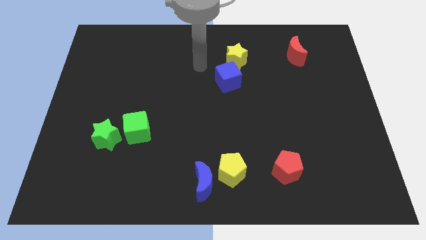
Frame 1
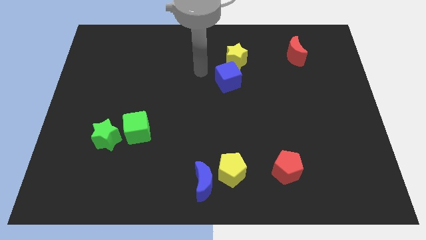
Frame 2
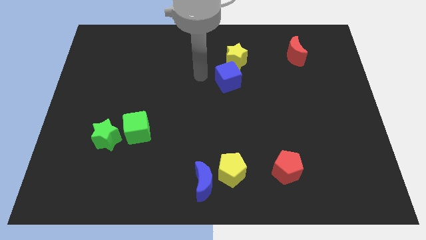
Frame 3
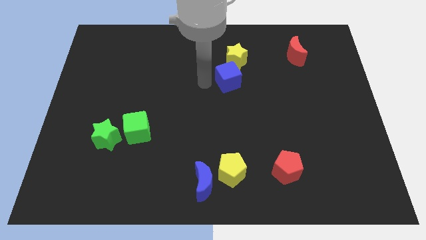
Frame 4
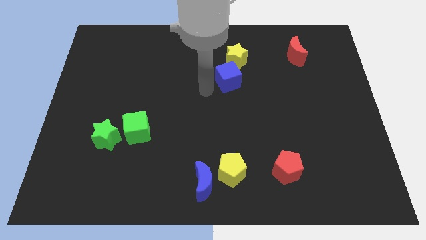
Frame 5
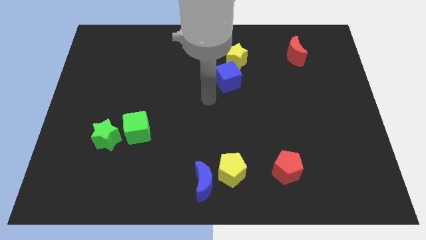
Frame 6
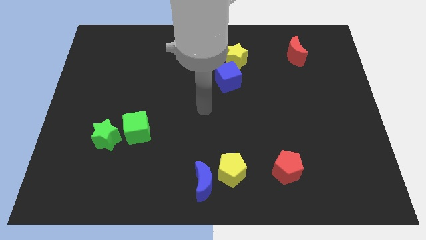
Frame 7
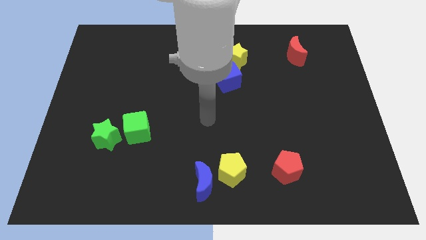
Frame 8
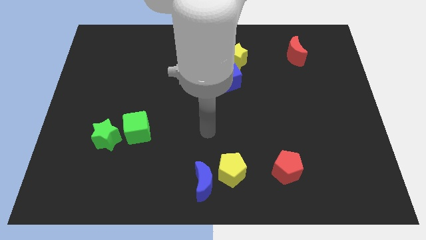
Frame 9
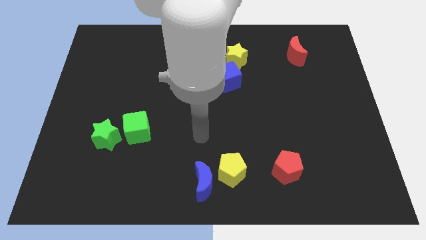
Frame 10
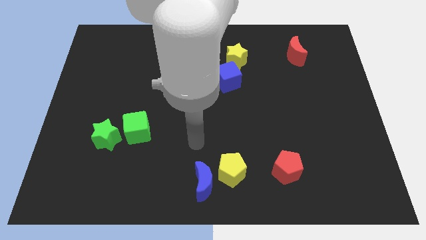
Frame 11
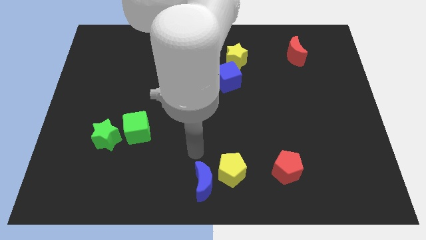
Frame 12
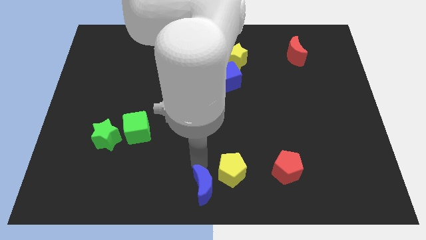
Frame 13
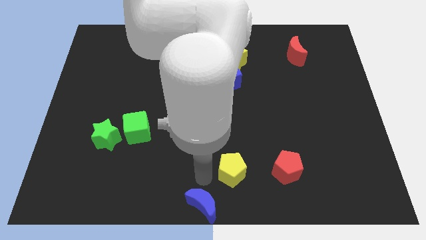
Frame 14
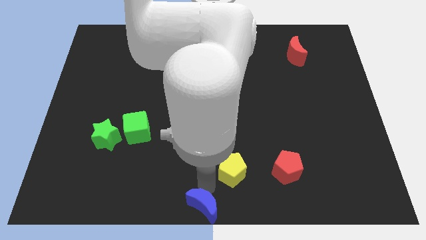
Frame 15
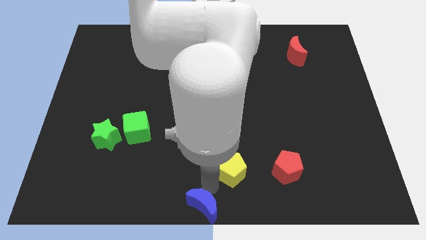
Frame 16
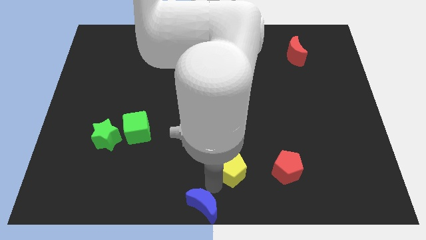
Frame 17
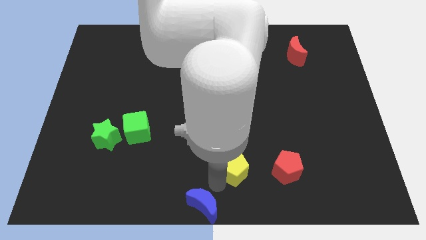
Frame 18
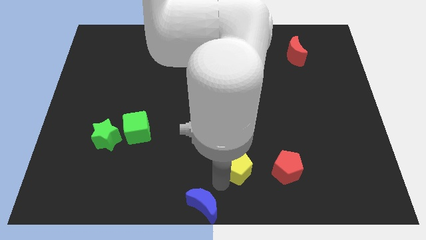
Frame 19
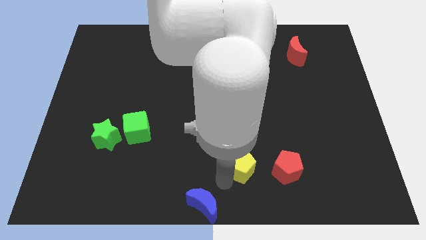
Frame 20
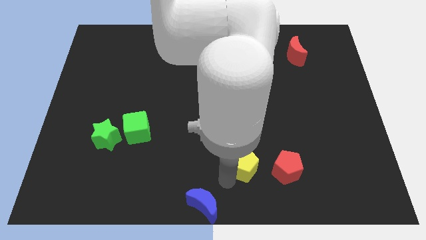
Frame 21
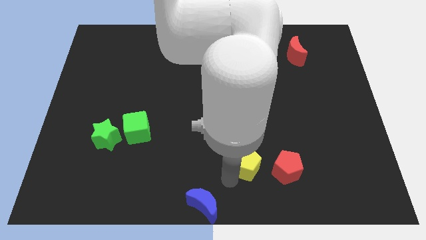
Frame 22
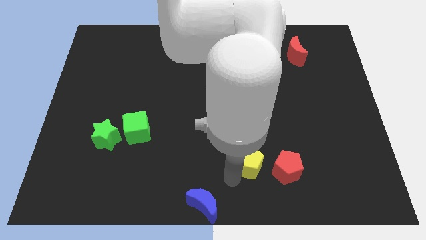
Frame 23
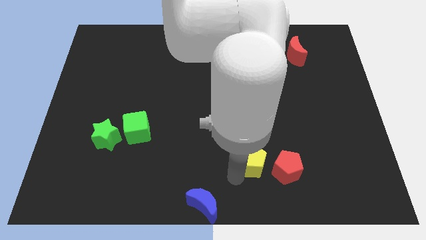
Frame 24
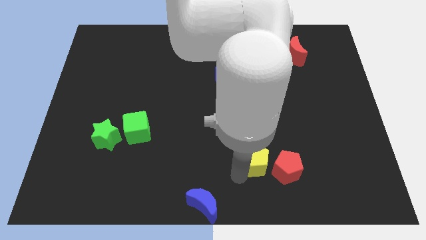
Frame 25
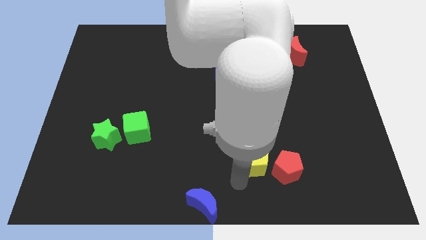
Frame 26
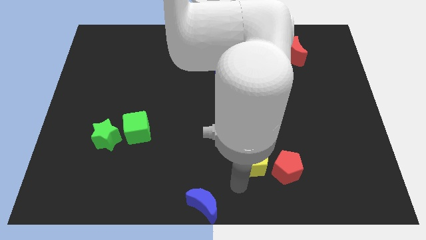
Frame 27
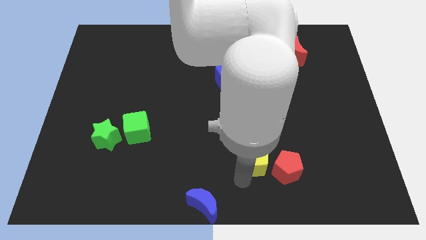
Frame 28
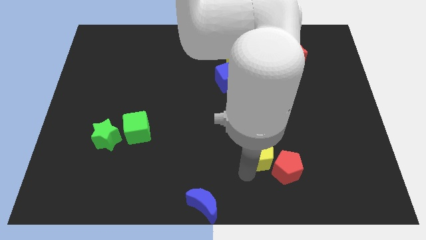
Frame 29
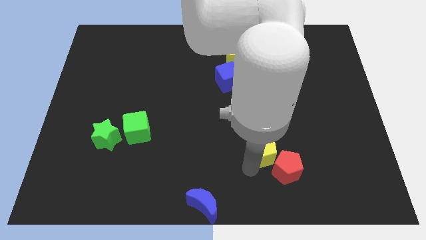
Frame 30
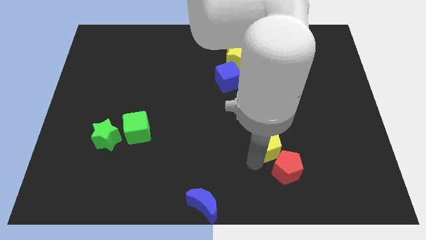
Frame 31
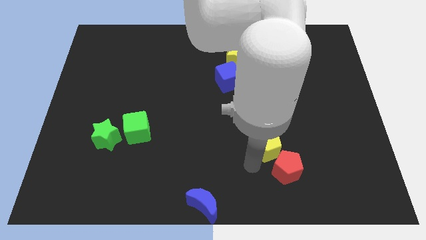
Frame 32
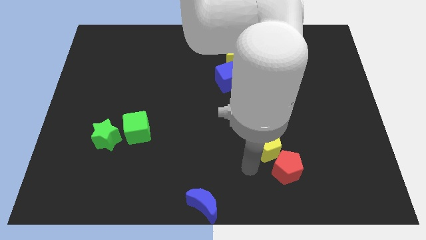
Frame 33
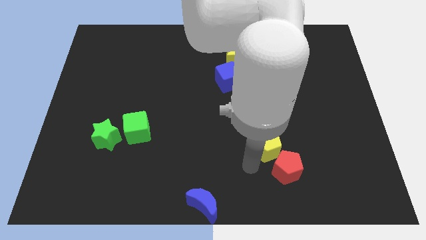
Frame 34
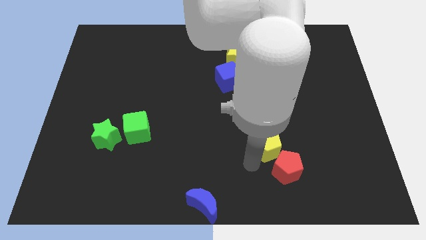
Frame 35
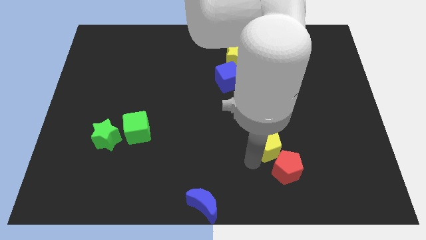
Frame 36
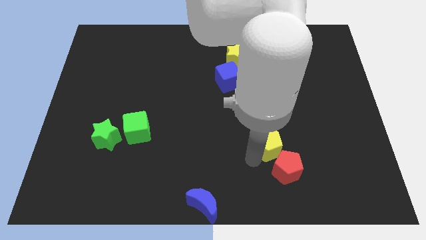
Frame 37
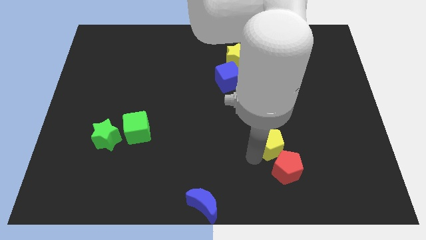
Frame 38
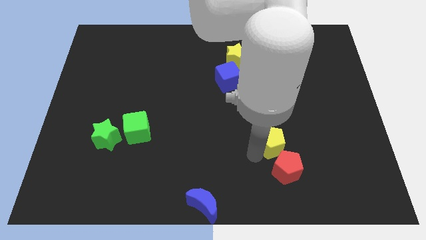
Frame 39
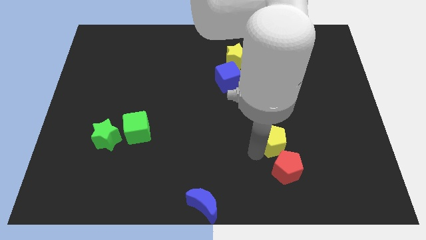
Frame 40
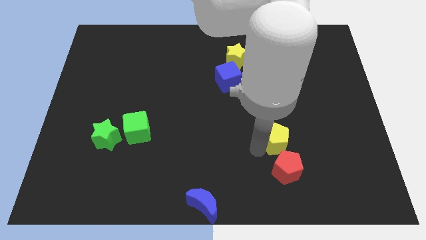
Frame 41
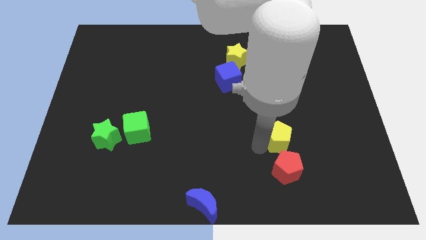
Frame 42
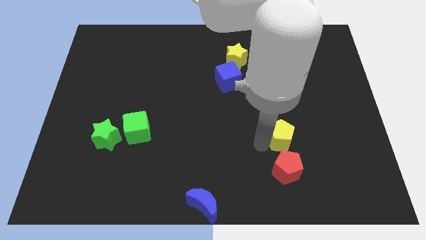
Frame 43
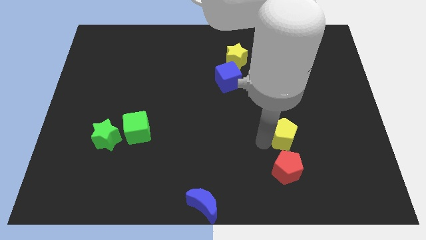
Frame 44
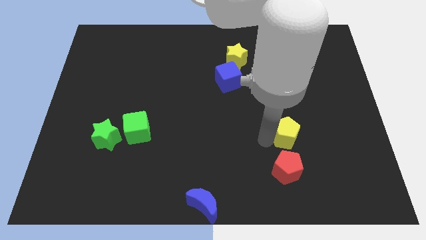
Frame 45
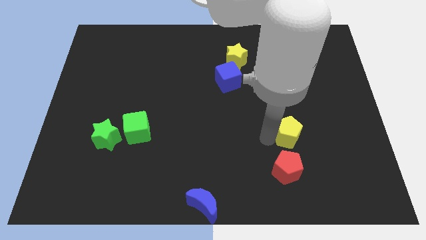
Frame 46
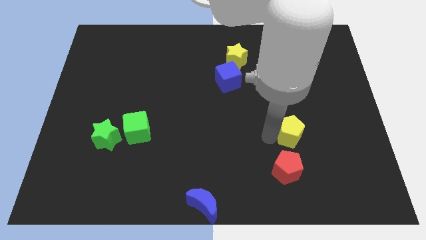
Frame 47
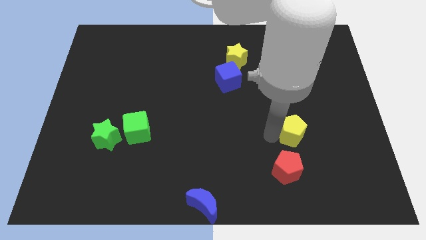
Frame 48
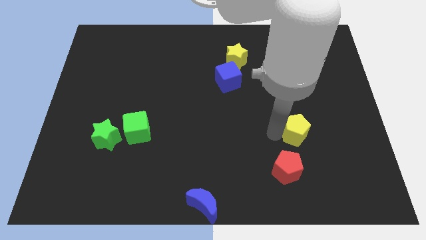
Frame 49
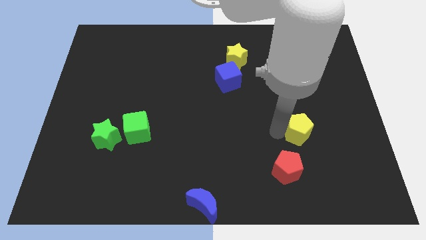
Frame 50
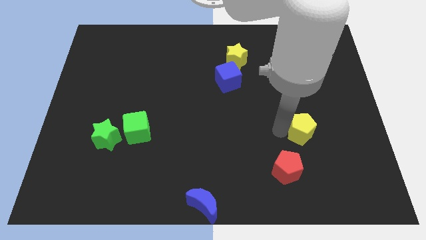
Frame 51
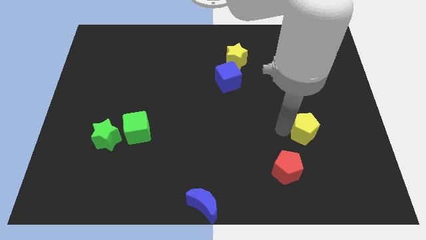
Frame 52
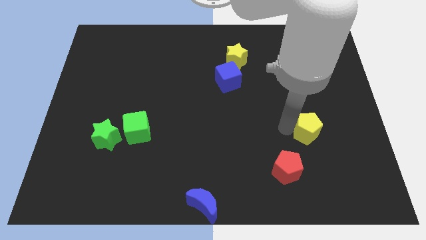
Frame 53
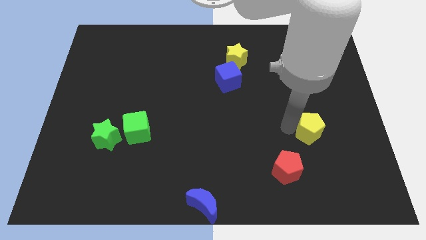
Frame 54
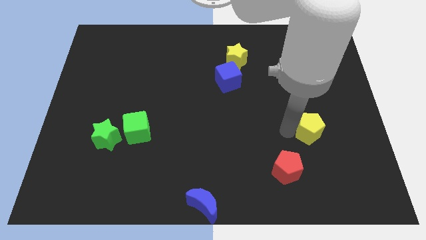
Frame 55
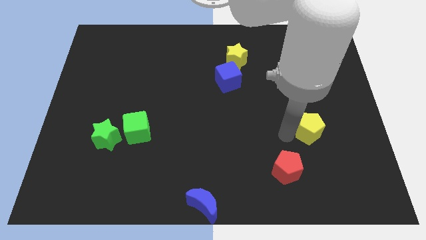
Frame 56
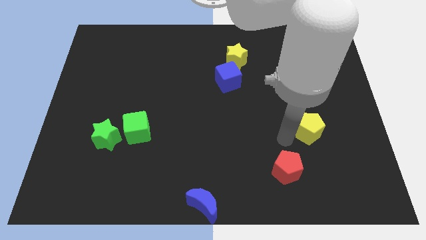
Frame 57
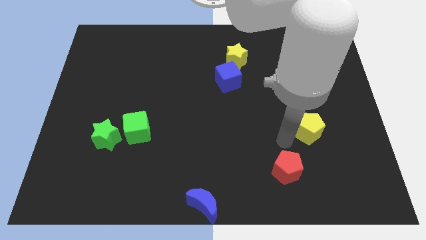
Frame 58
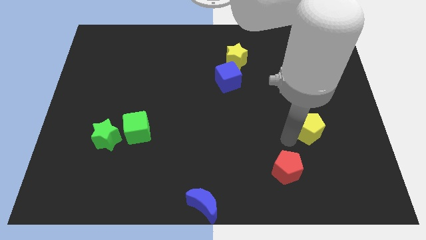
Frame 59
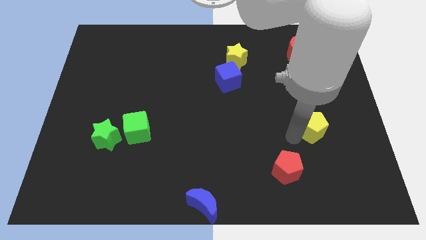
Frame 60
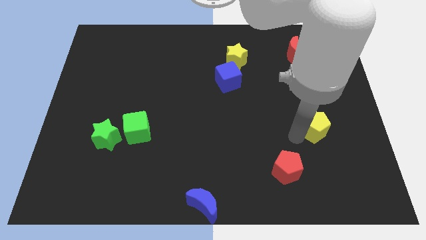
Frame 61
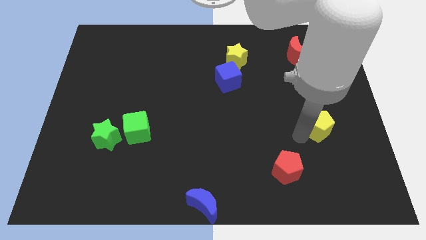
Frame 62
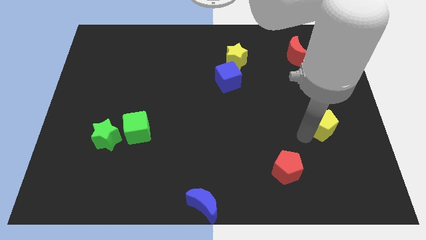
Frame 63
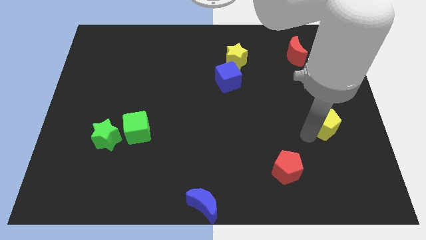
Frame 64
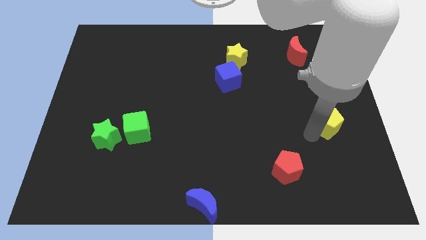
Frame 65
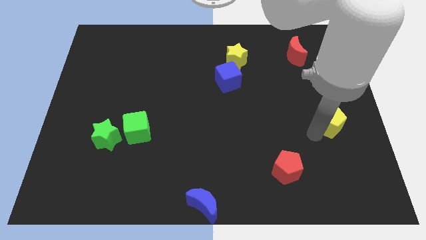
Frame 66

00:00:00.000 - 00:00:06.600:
move the yellow pentagon to the center right
